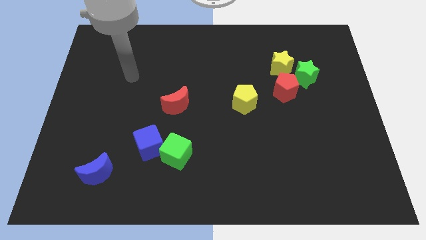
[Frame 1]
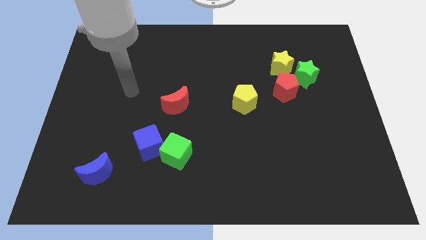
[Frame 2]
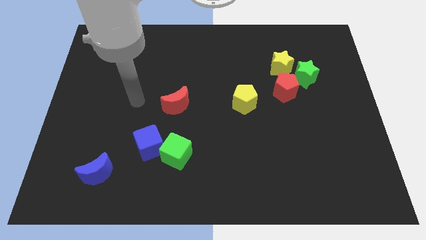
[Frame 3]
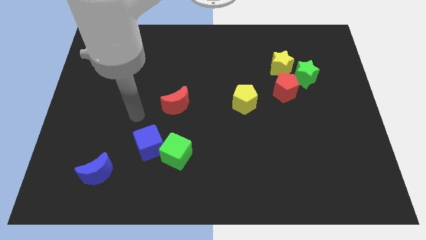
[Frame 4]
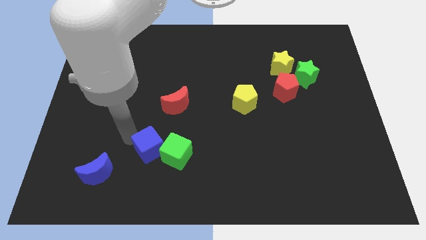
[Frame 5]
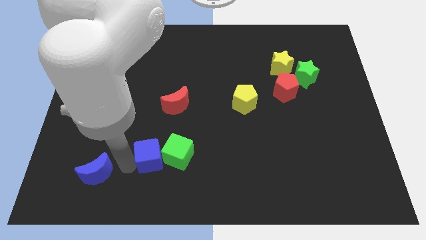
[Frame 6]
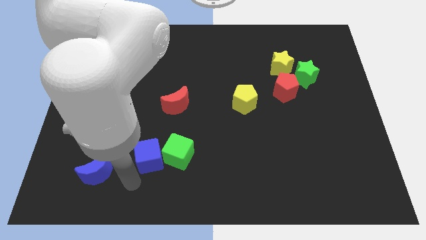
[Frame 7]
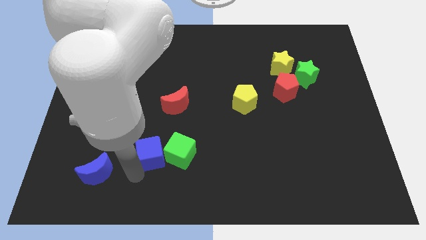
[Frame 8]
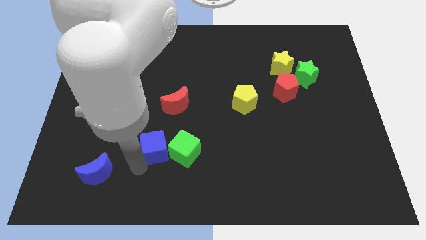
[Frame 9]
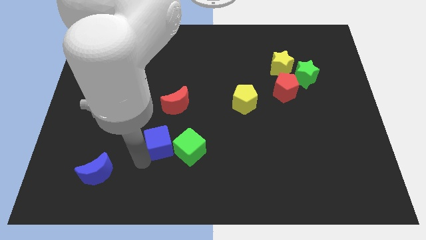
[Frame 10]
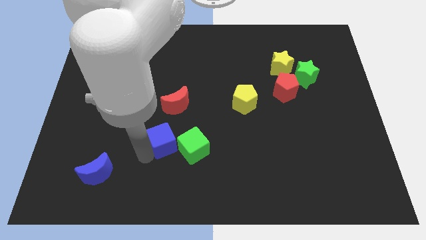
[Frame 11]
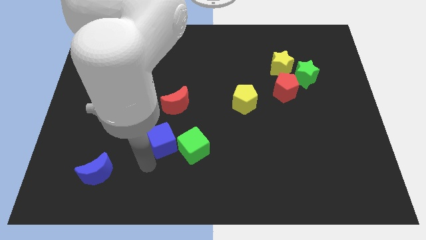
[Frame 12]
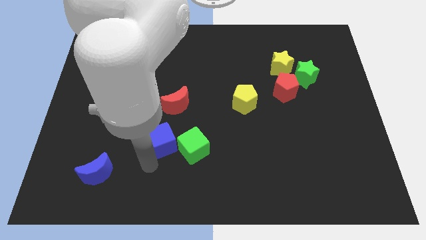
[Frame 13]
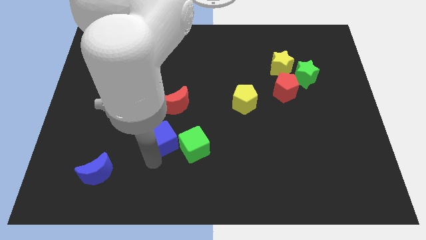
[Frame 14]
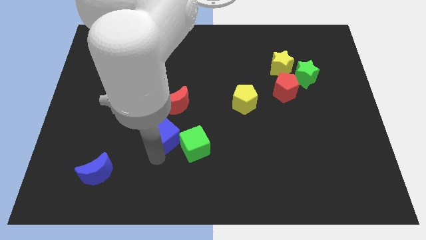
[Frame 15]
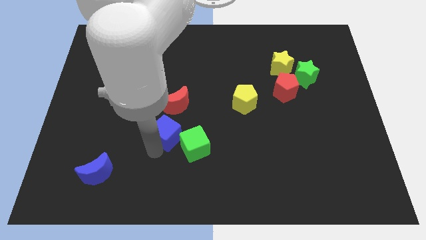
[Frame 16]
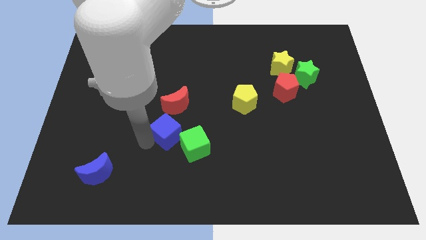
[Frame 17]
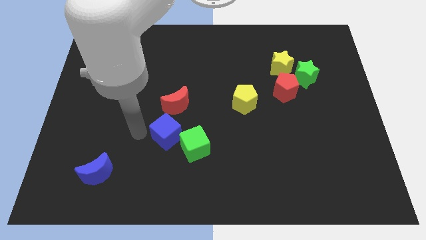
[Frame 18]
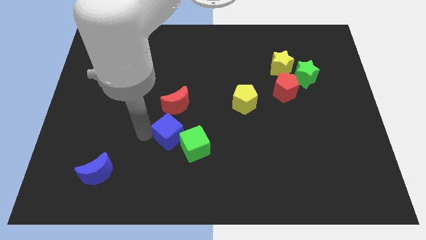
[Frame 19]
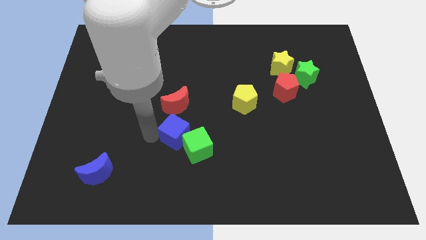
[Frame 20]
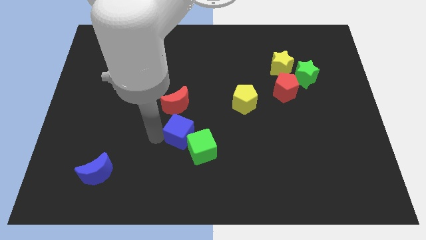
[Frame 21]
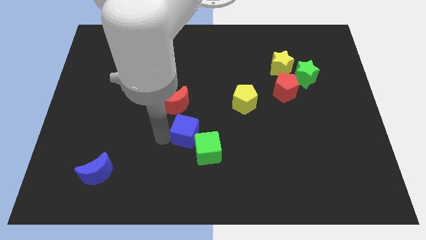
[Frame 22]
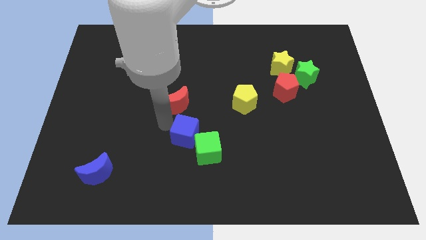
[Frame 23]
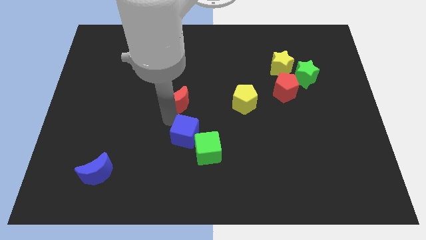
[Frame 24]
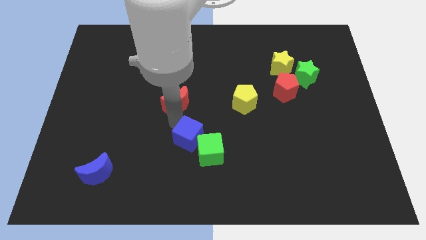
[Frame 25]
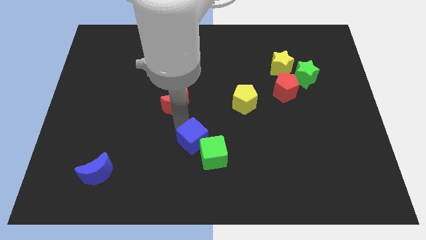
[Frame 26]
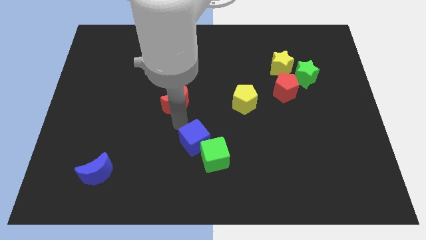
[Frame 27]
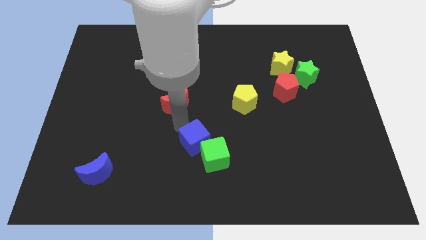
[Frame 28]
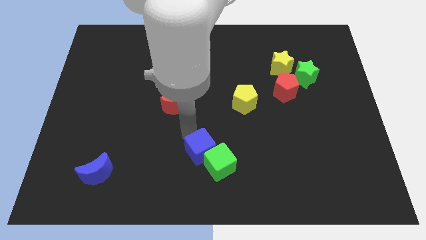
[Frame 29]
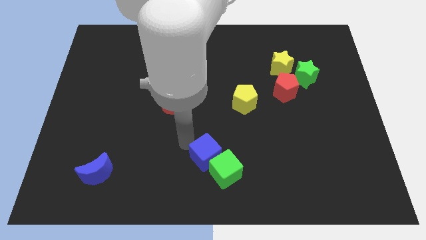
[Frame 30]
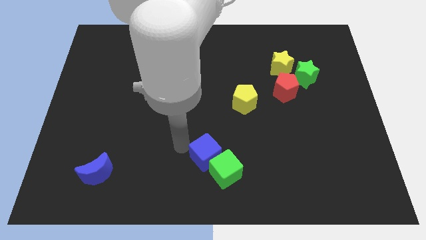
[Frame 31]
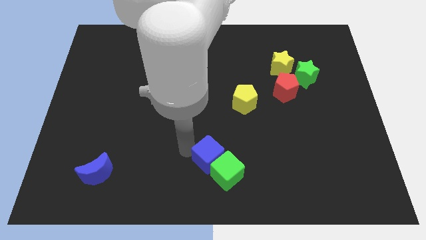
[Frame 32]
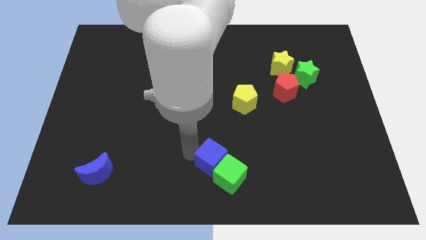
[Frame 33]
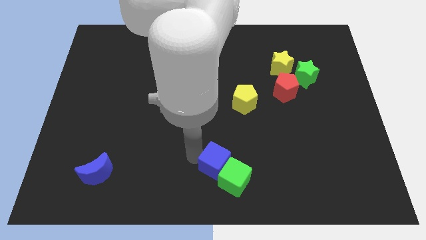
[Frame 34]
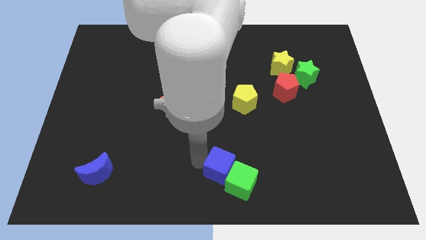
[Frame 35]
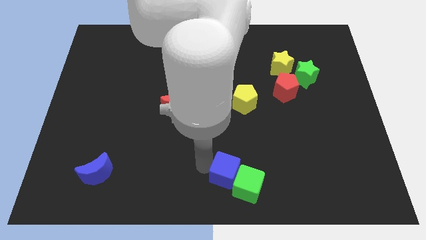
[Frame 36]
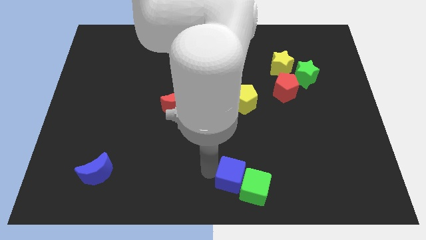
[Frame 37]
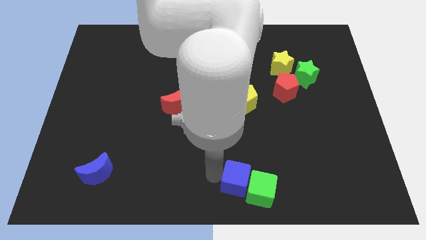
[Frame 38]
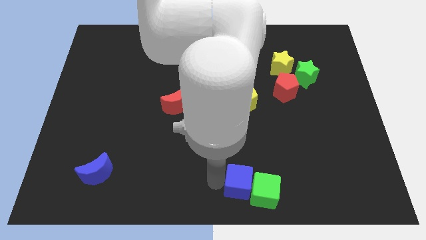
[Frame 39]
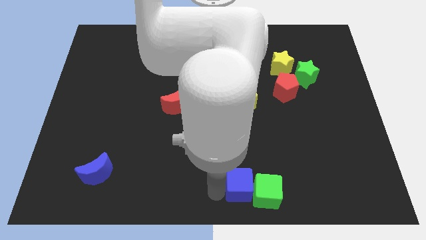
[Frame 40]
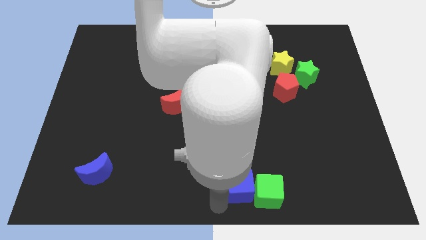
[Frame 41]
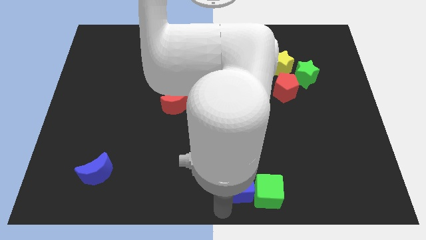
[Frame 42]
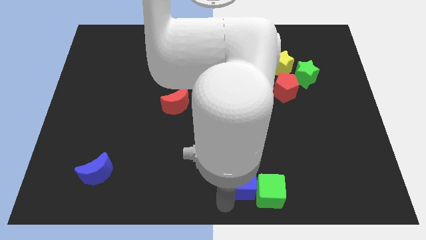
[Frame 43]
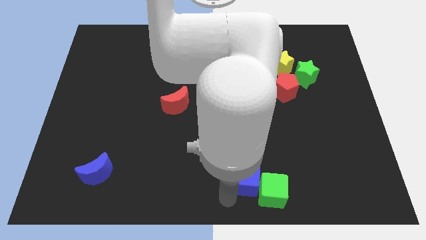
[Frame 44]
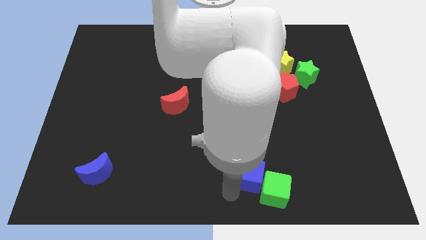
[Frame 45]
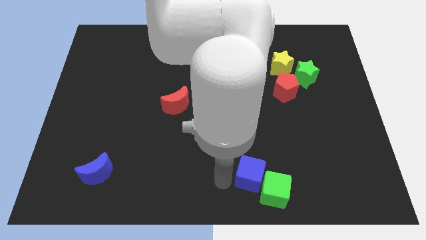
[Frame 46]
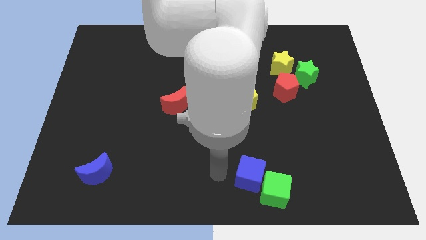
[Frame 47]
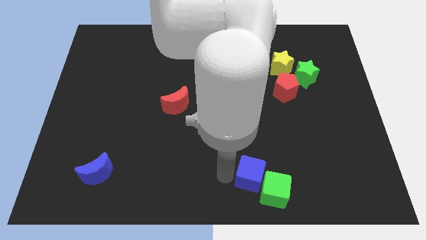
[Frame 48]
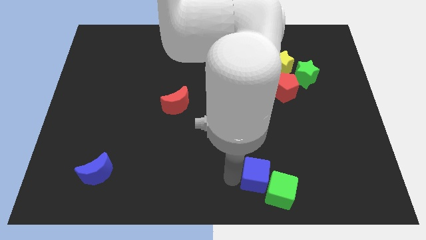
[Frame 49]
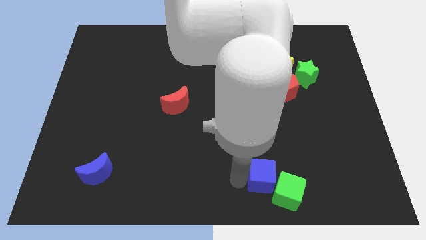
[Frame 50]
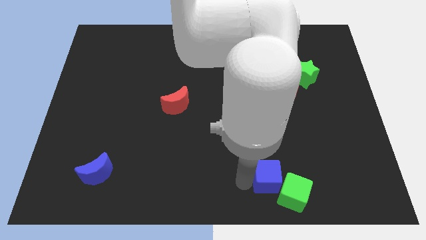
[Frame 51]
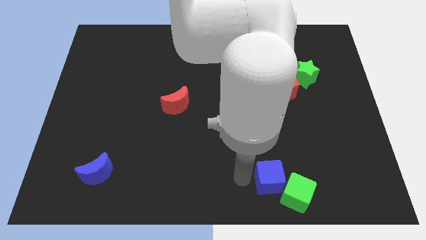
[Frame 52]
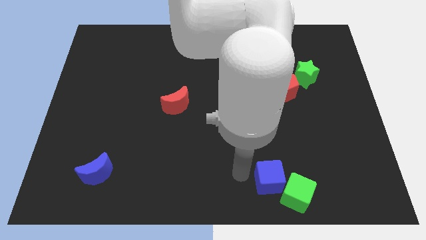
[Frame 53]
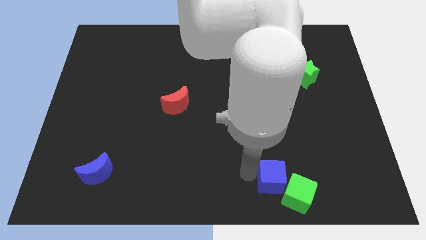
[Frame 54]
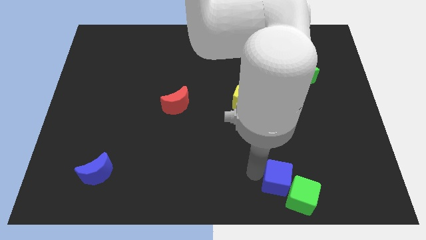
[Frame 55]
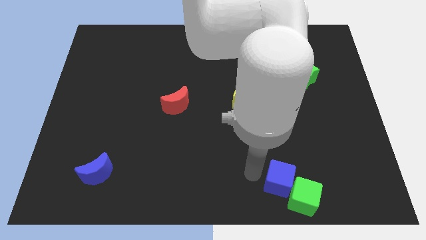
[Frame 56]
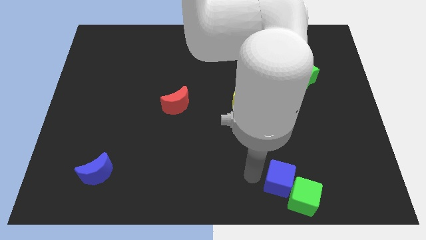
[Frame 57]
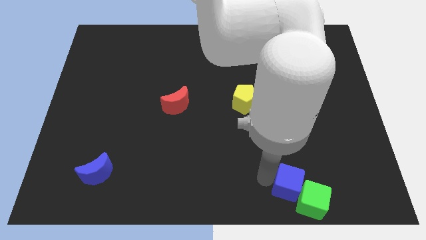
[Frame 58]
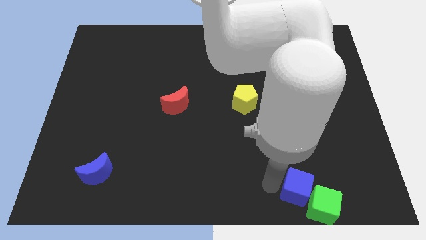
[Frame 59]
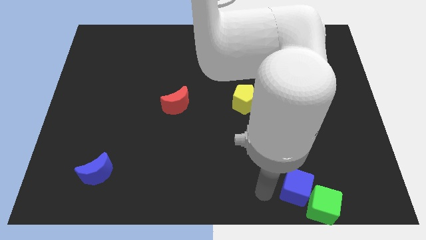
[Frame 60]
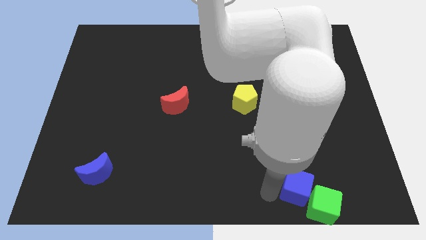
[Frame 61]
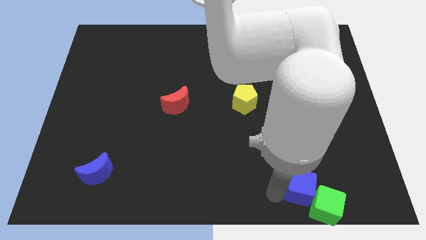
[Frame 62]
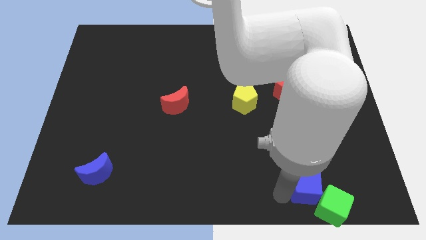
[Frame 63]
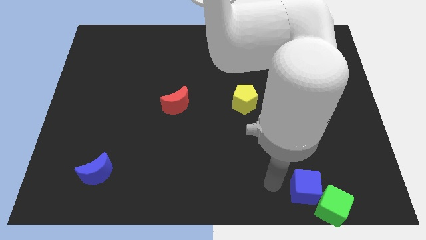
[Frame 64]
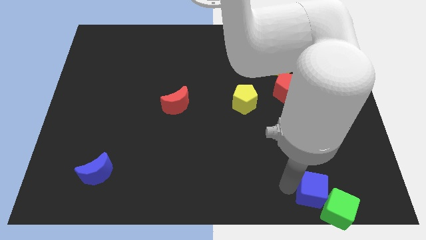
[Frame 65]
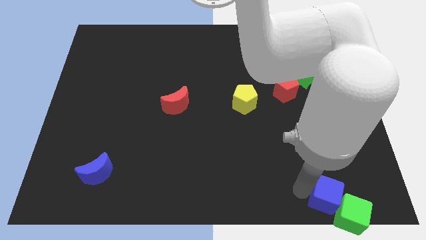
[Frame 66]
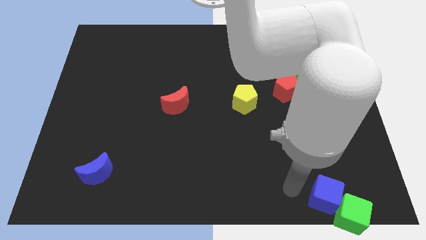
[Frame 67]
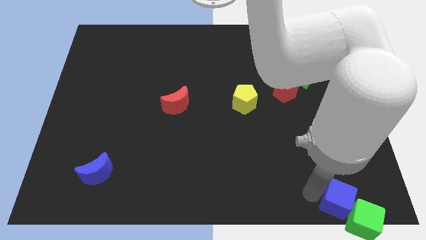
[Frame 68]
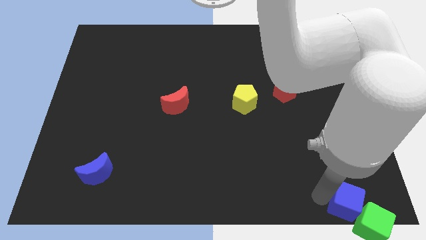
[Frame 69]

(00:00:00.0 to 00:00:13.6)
move the blue cube to the lower right corner
